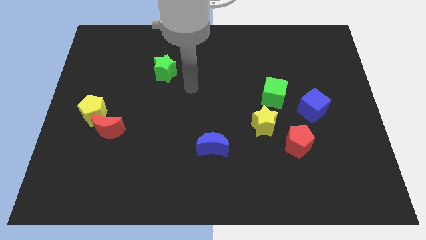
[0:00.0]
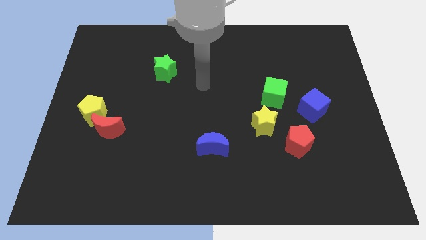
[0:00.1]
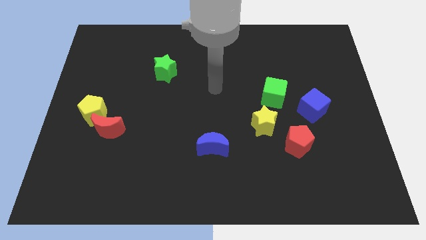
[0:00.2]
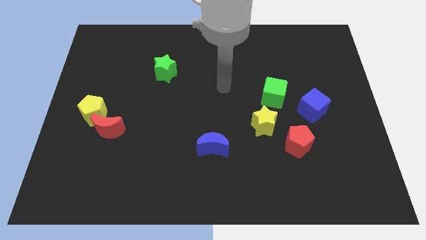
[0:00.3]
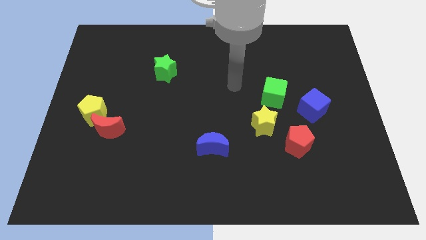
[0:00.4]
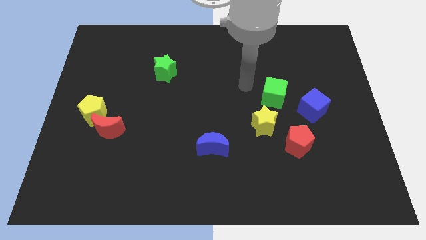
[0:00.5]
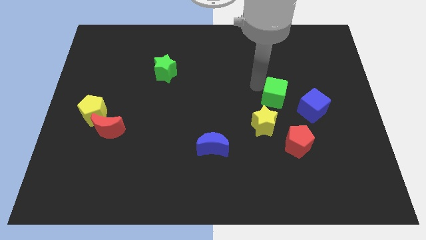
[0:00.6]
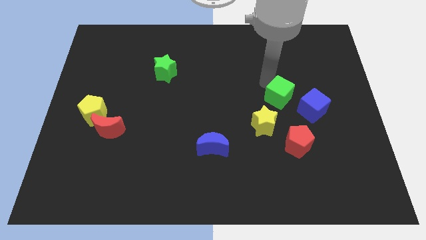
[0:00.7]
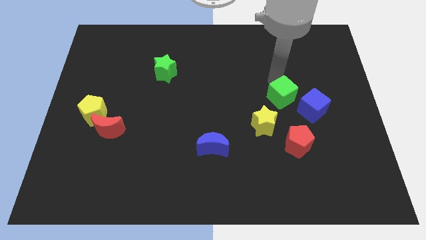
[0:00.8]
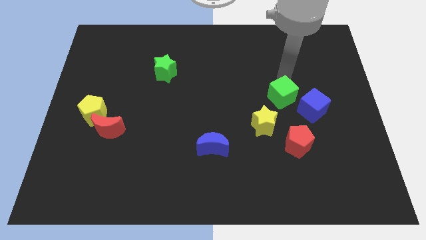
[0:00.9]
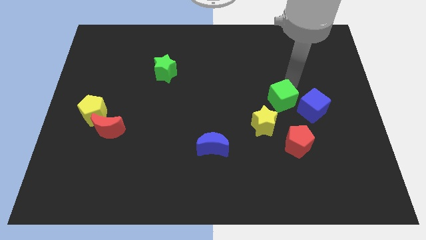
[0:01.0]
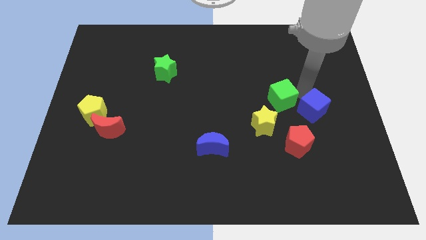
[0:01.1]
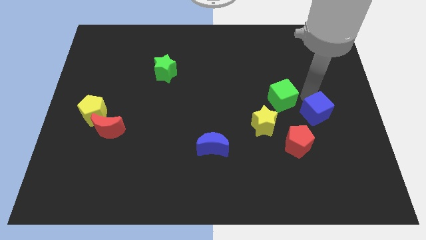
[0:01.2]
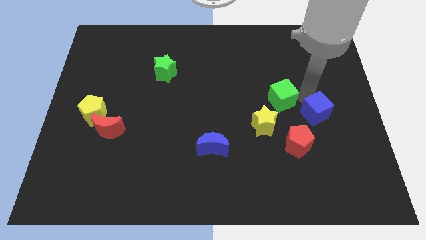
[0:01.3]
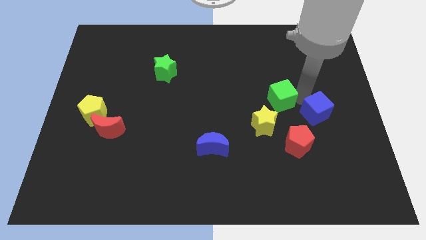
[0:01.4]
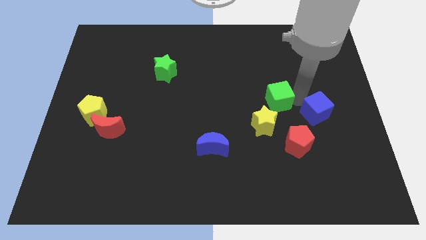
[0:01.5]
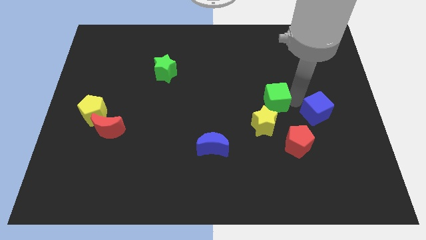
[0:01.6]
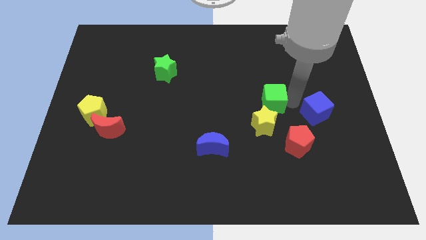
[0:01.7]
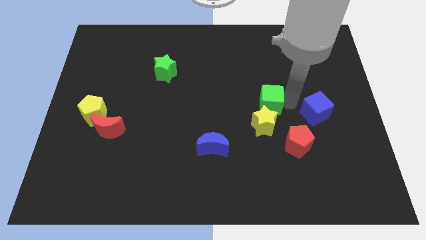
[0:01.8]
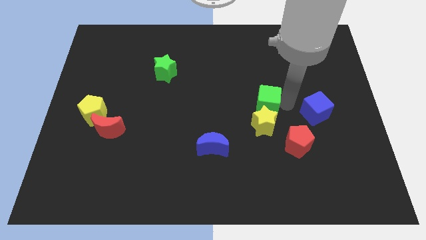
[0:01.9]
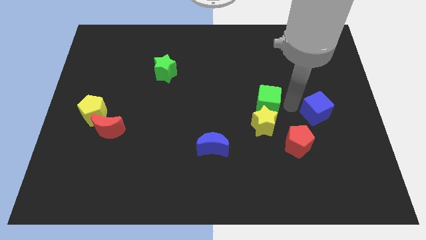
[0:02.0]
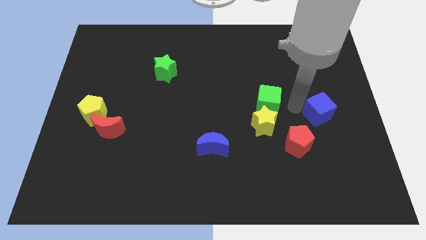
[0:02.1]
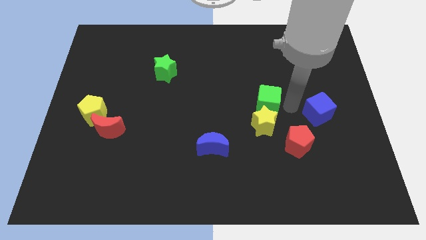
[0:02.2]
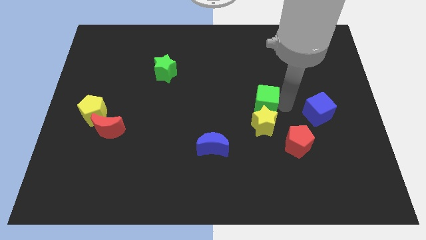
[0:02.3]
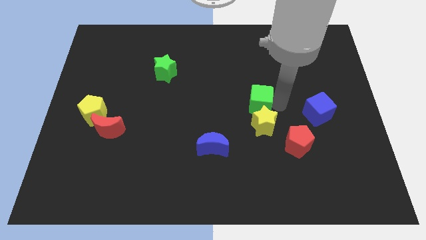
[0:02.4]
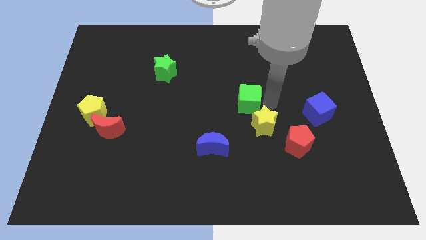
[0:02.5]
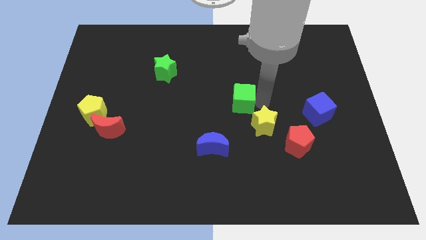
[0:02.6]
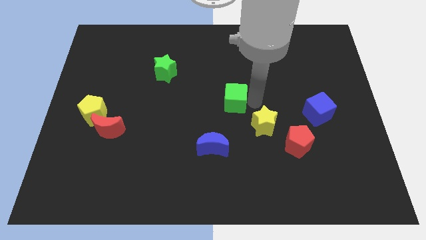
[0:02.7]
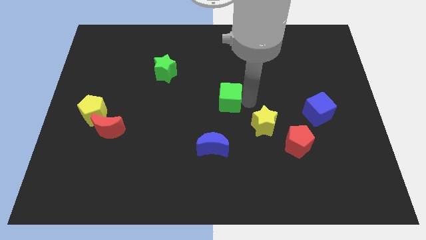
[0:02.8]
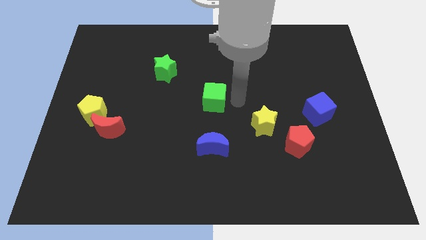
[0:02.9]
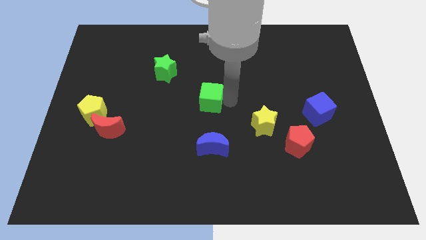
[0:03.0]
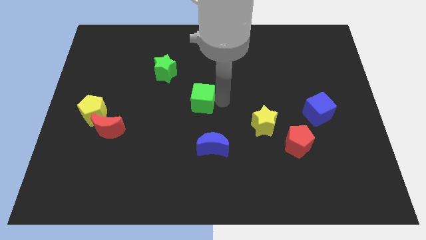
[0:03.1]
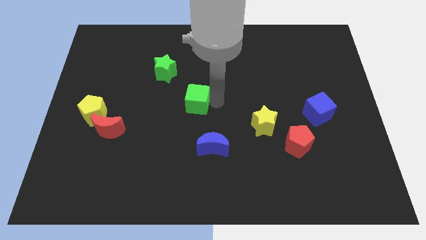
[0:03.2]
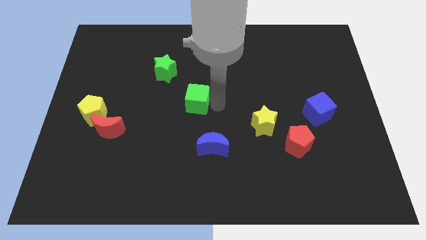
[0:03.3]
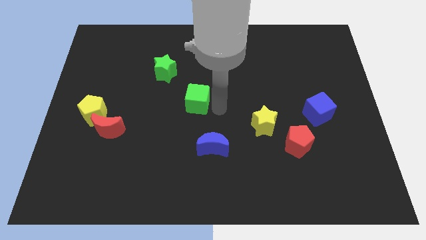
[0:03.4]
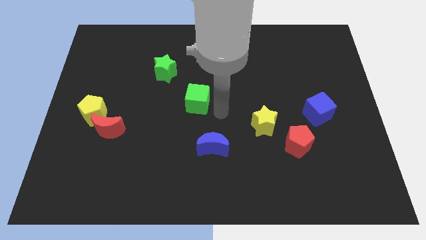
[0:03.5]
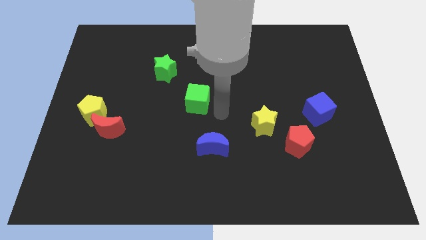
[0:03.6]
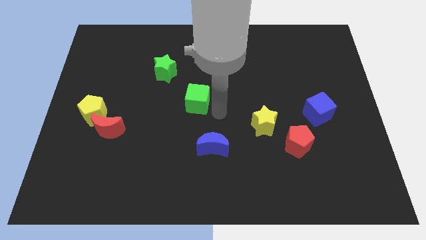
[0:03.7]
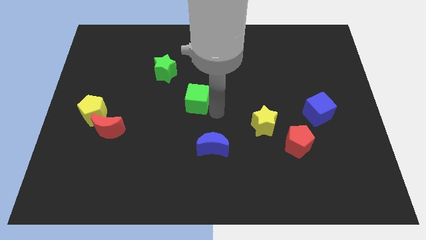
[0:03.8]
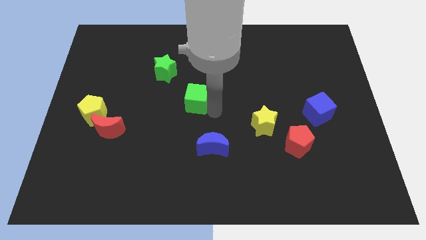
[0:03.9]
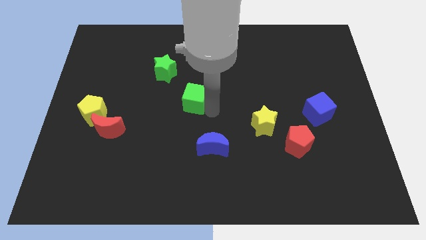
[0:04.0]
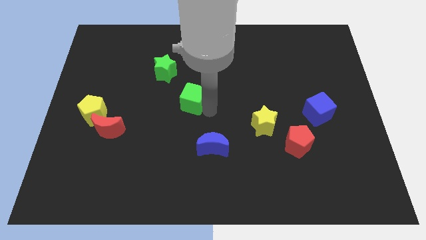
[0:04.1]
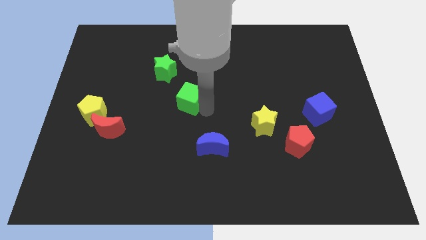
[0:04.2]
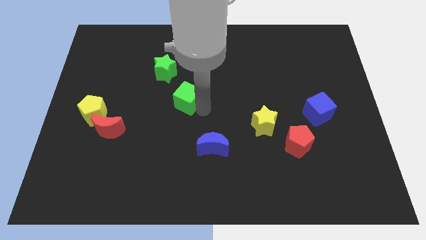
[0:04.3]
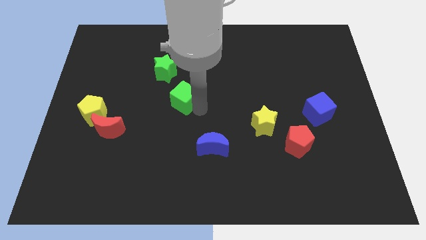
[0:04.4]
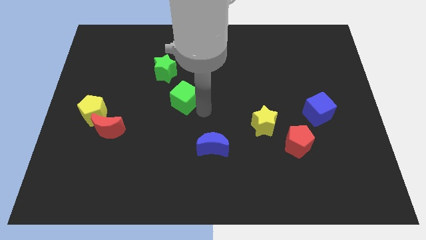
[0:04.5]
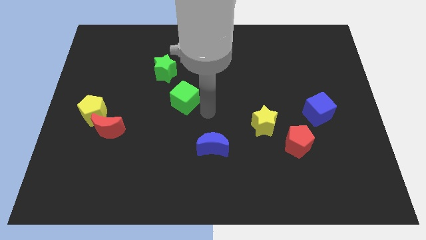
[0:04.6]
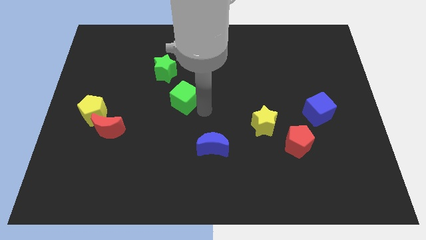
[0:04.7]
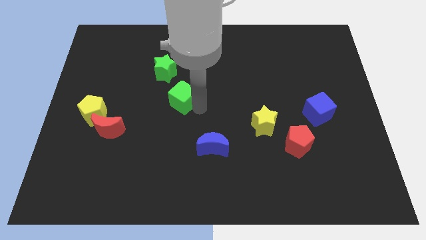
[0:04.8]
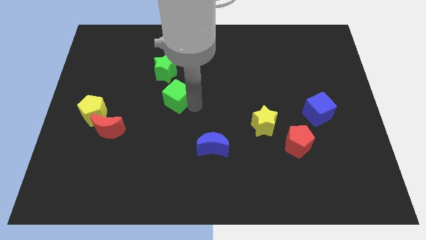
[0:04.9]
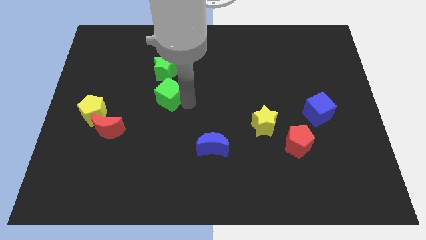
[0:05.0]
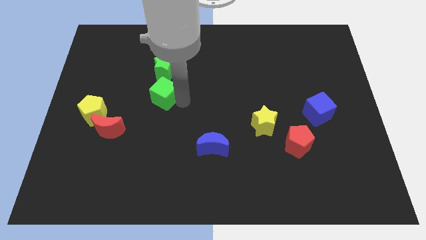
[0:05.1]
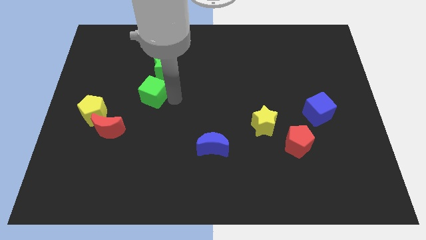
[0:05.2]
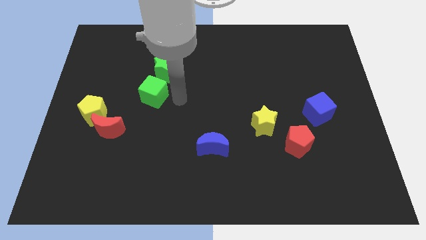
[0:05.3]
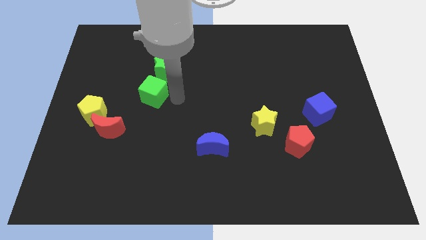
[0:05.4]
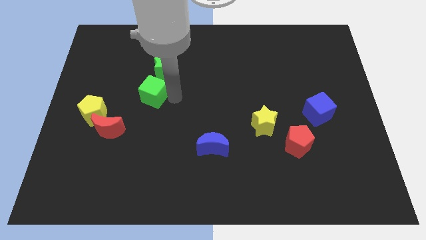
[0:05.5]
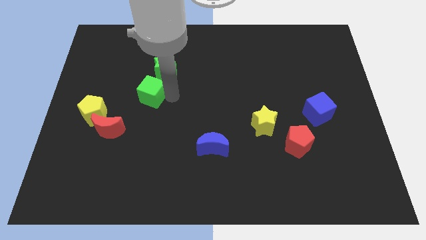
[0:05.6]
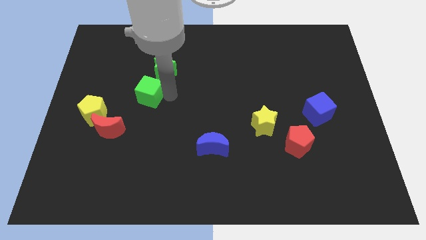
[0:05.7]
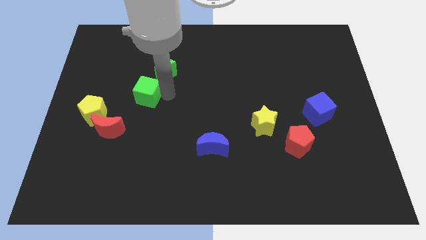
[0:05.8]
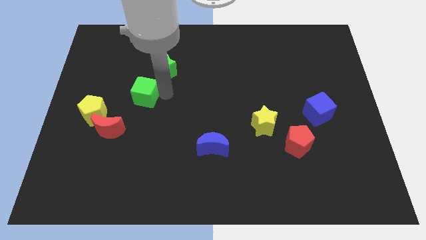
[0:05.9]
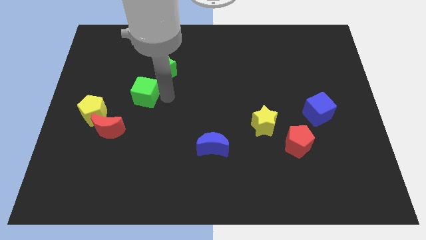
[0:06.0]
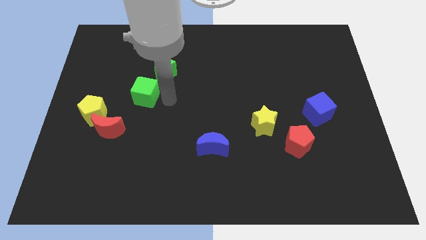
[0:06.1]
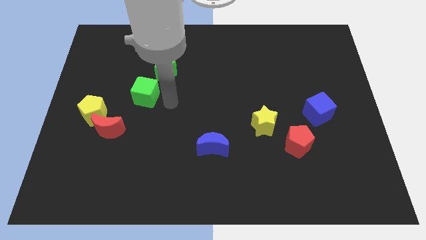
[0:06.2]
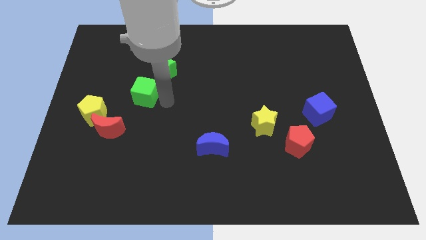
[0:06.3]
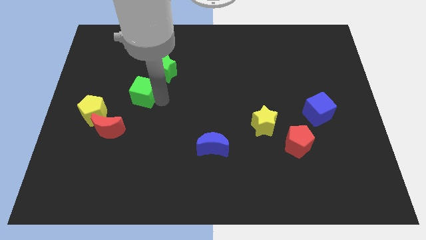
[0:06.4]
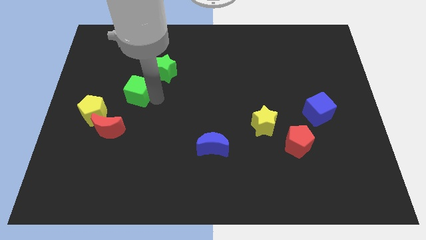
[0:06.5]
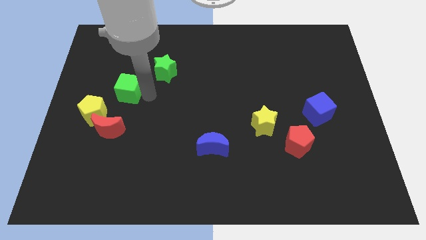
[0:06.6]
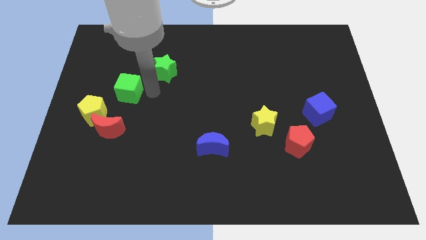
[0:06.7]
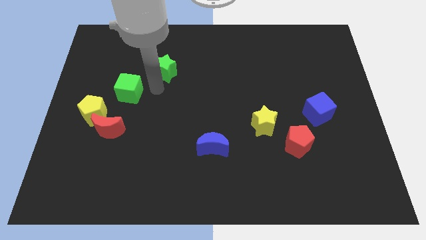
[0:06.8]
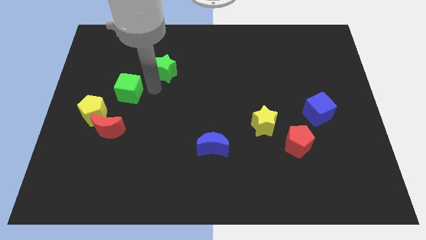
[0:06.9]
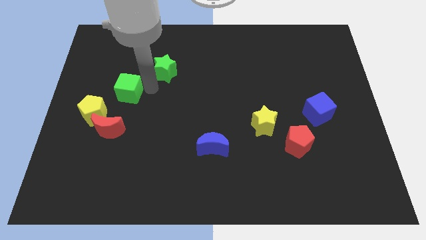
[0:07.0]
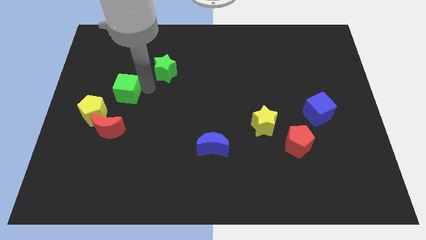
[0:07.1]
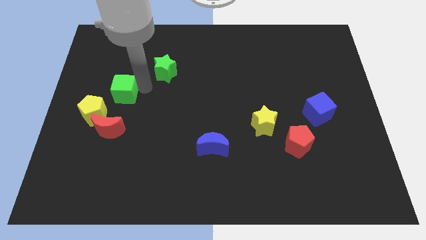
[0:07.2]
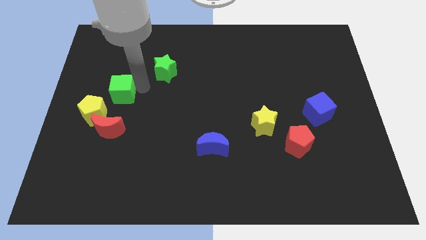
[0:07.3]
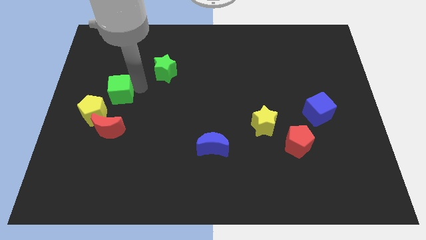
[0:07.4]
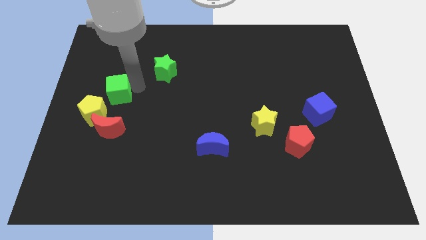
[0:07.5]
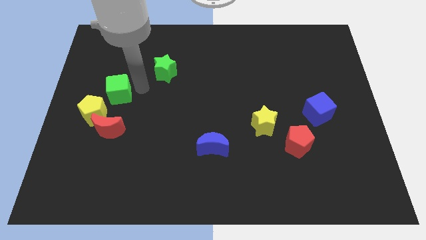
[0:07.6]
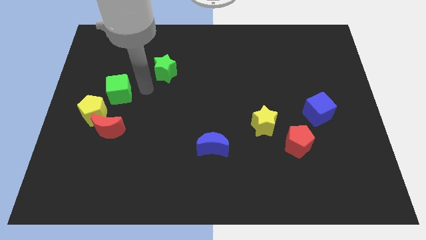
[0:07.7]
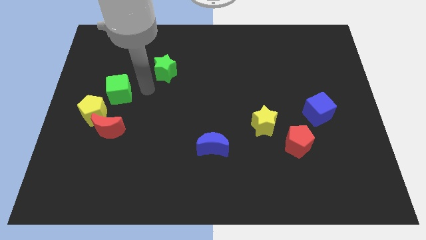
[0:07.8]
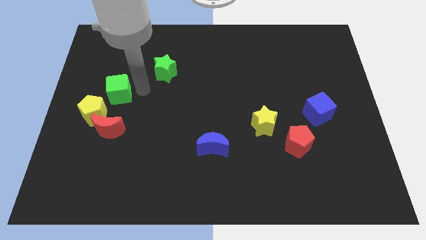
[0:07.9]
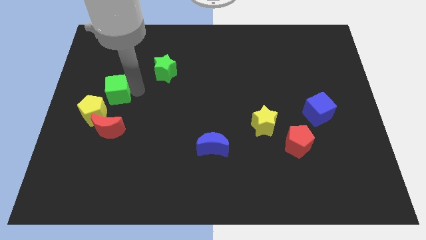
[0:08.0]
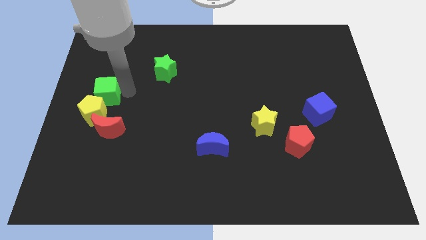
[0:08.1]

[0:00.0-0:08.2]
slide the green cube to the left side
